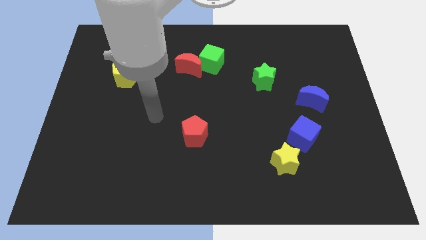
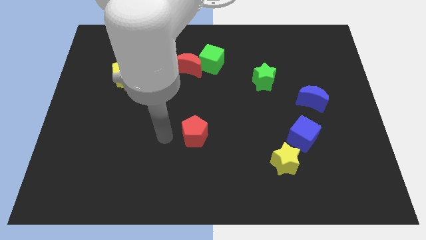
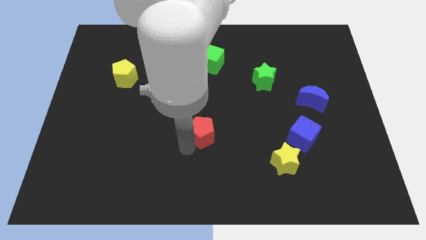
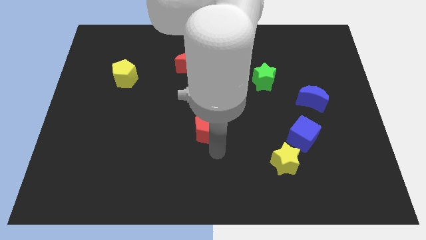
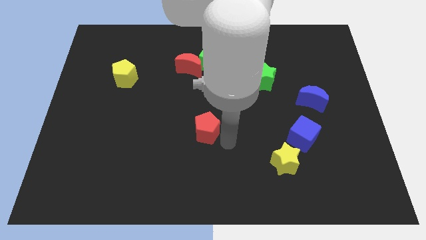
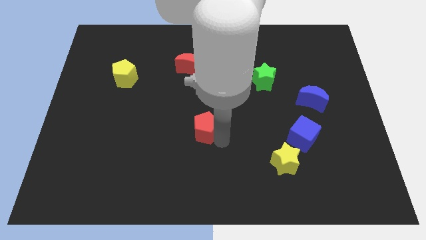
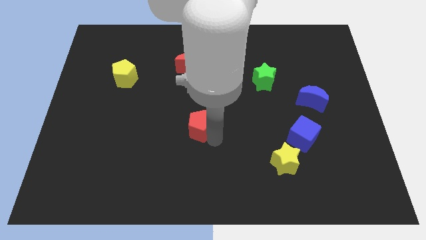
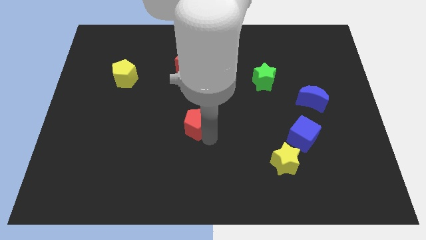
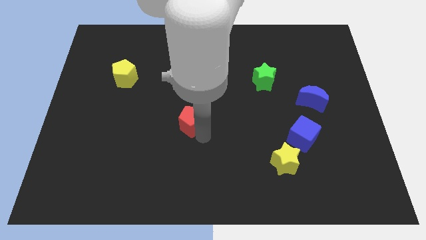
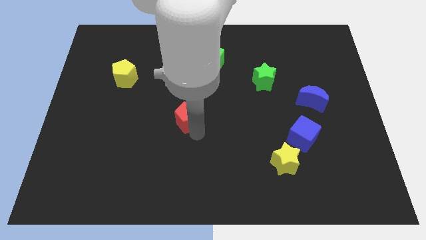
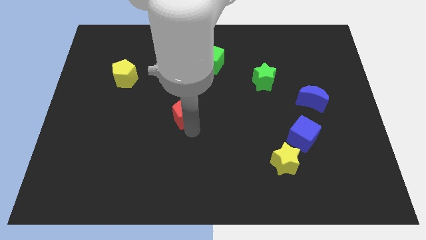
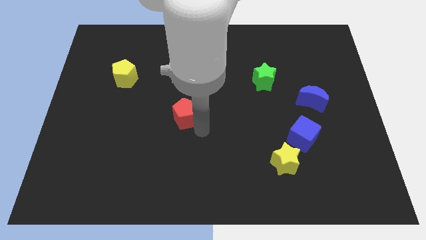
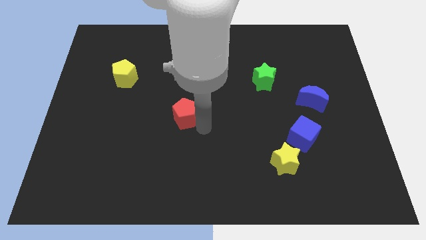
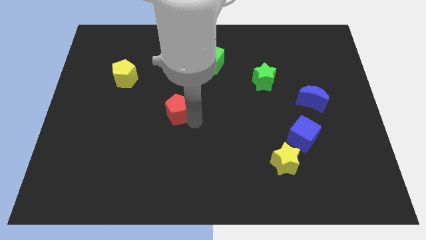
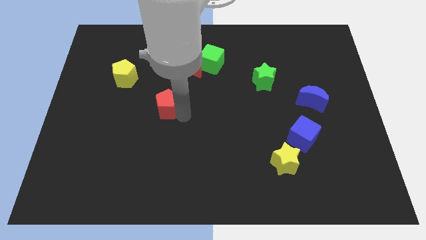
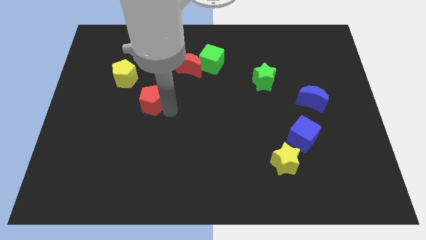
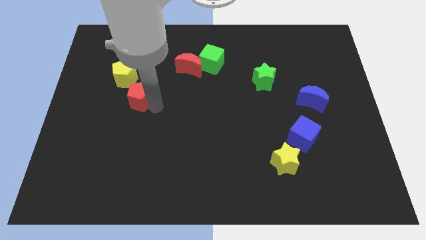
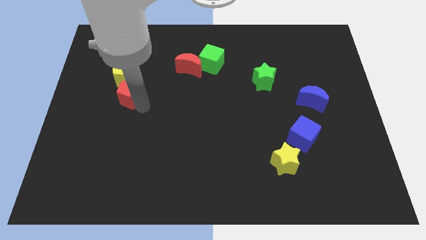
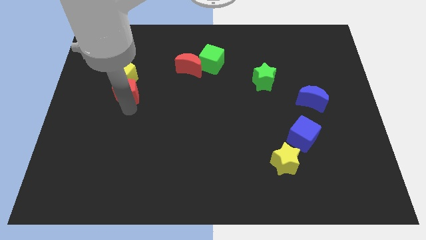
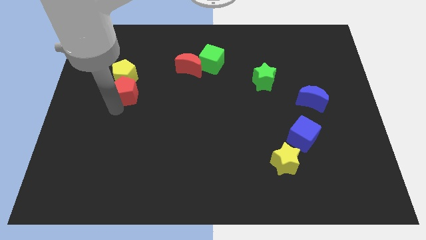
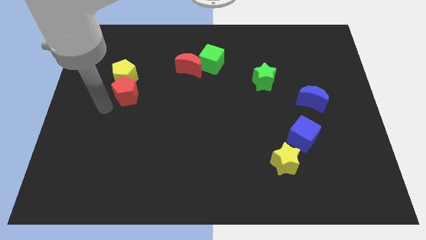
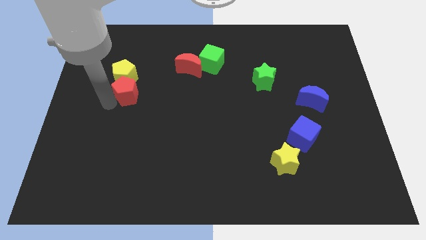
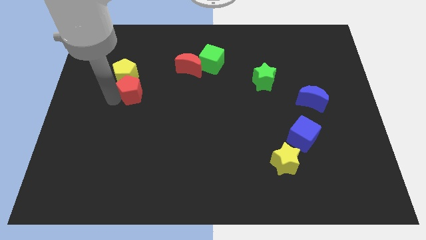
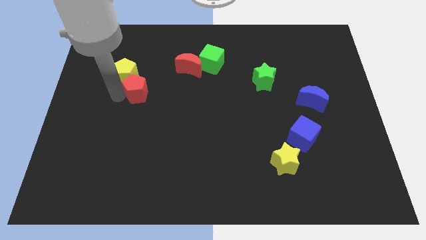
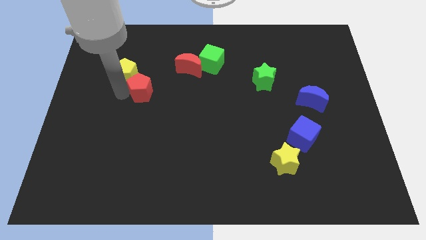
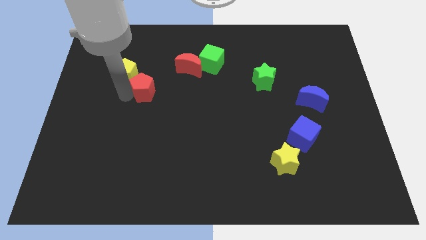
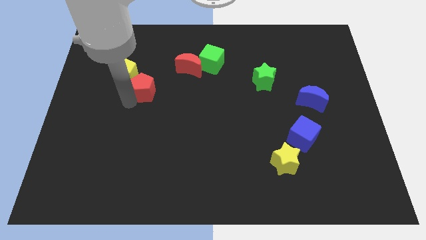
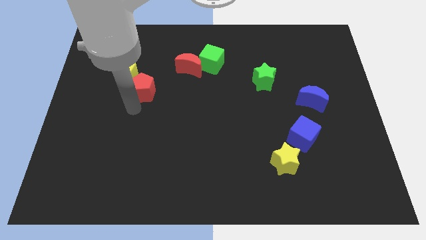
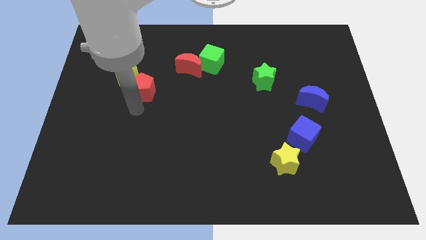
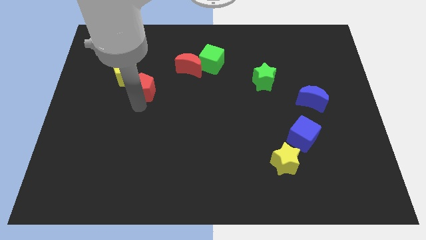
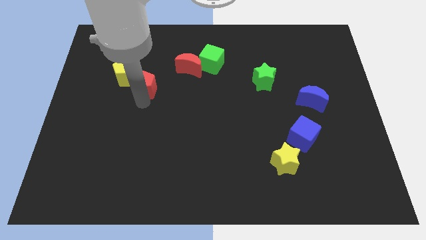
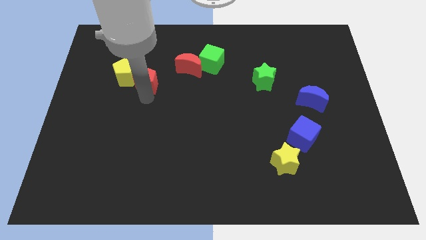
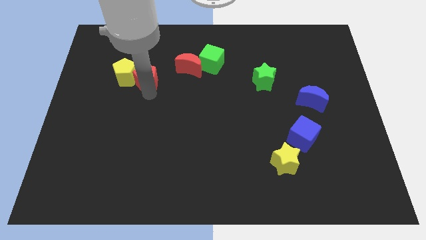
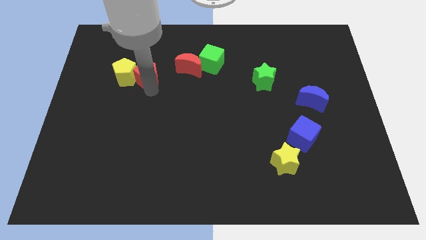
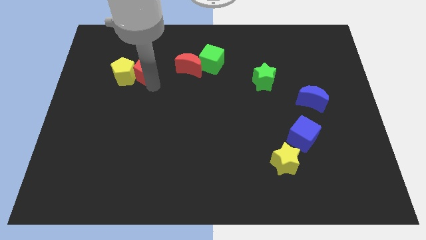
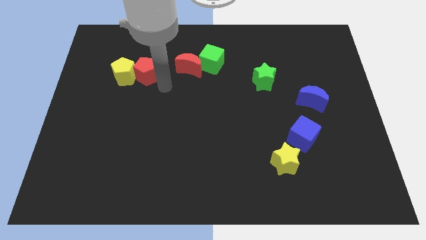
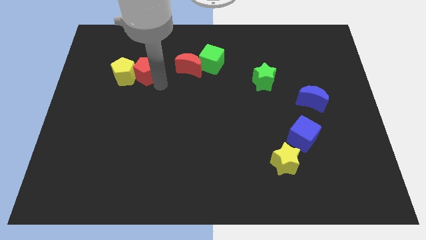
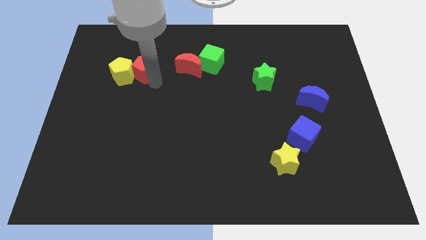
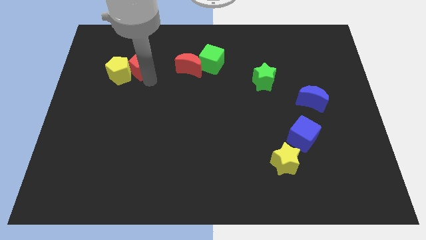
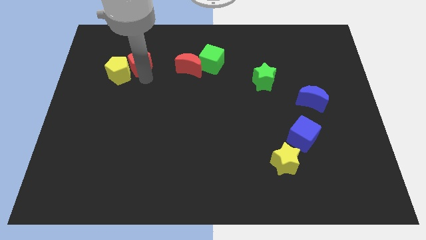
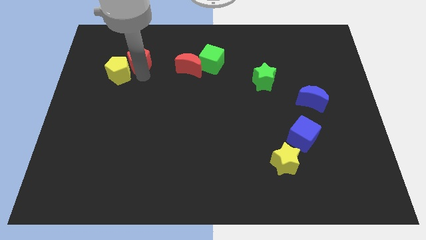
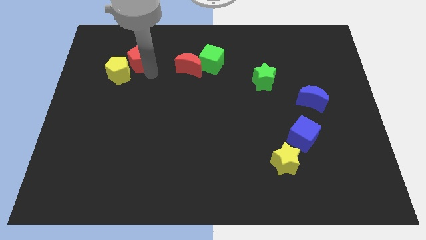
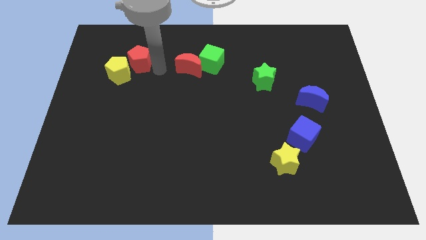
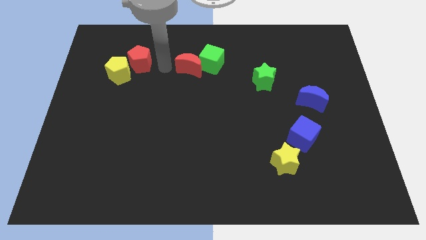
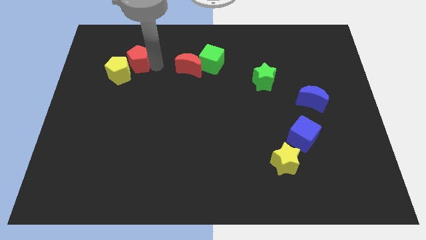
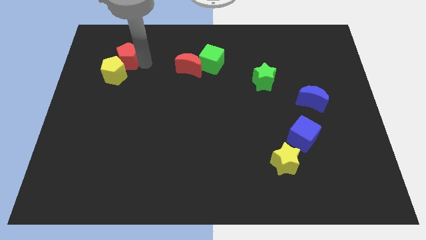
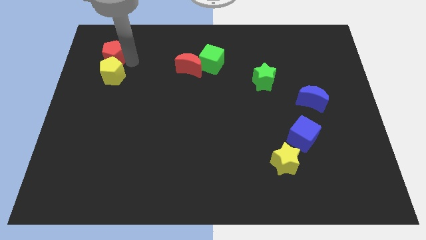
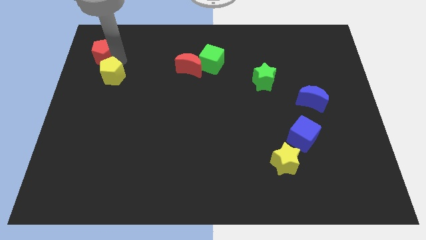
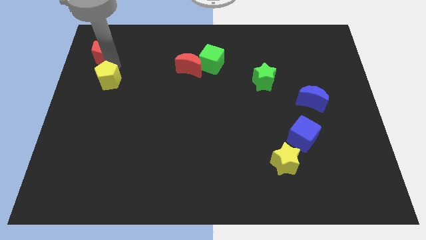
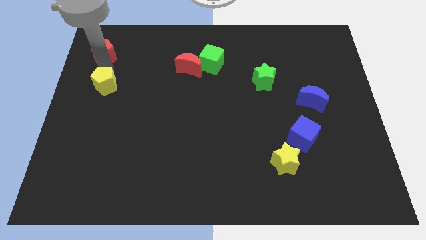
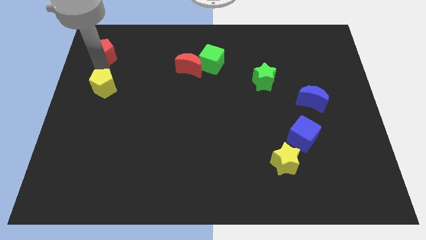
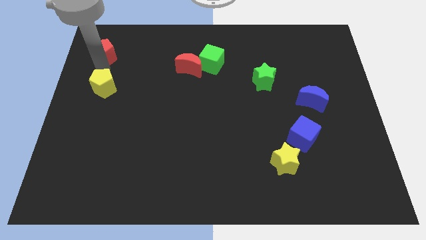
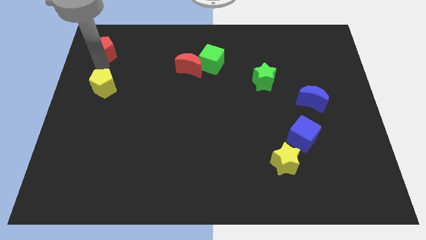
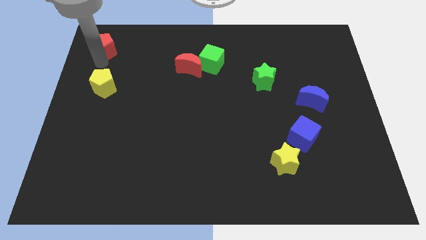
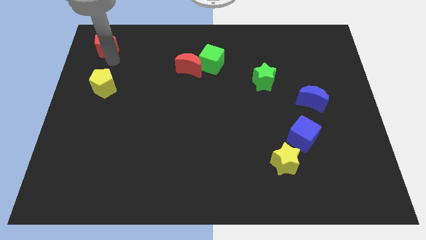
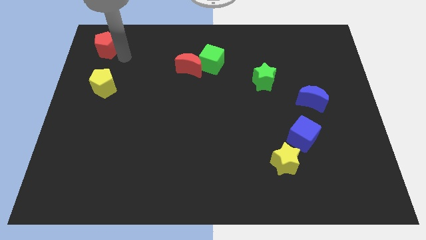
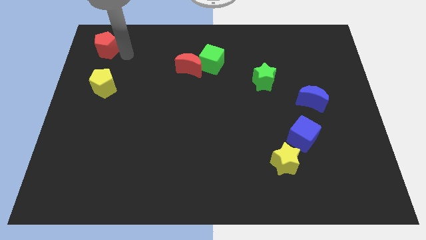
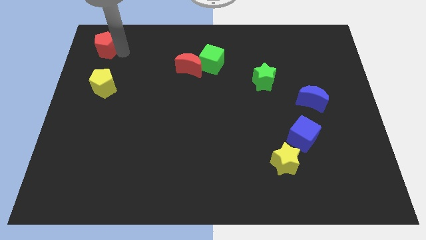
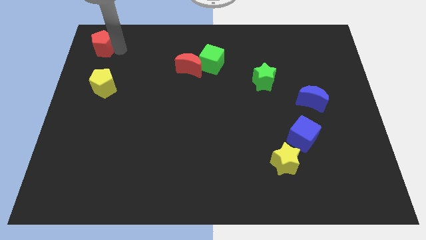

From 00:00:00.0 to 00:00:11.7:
move the red pentagon to the upper left corner

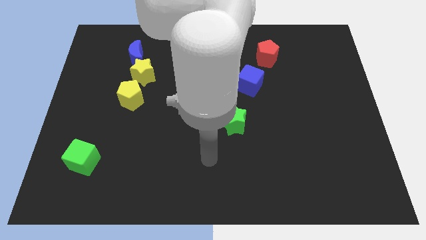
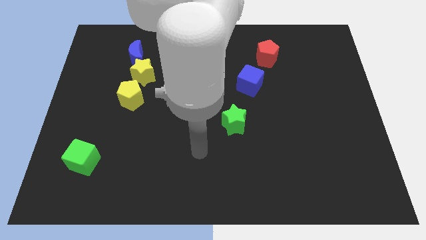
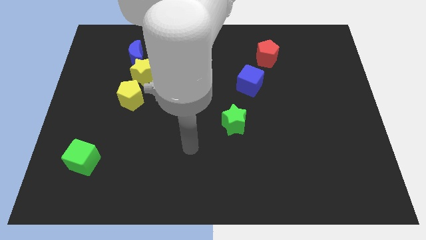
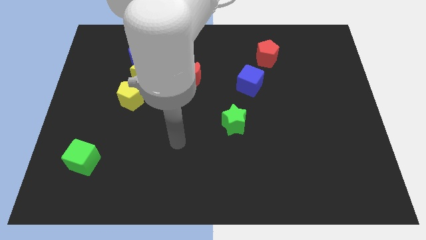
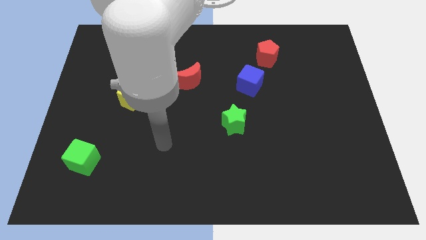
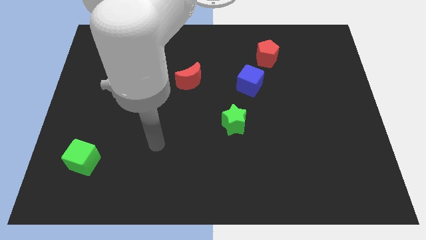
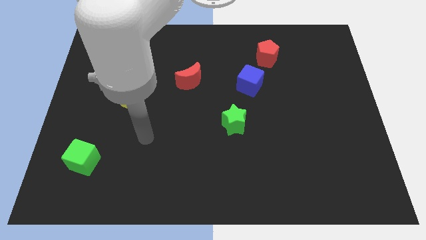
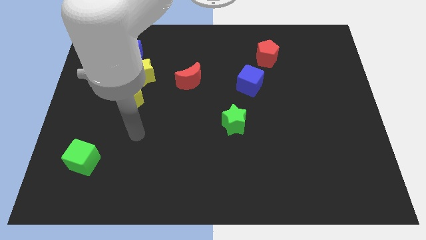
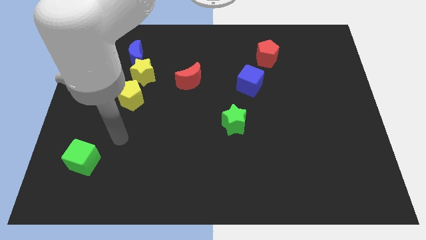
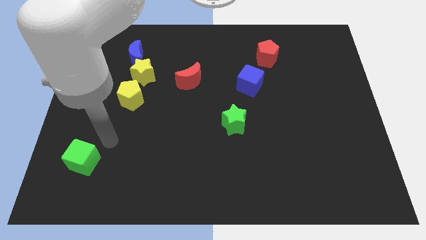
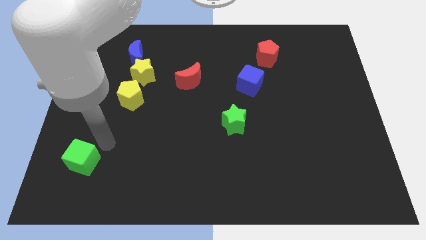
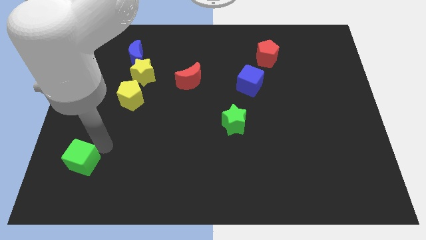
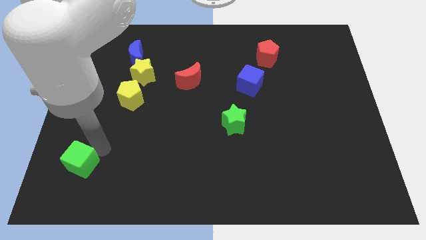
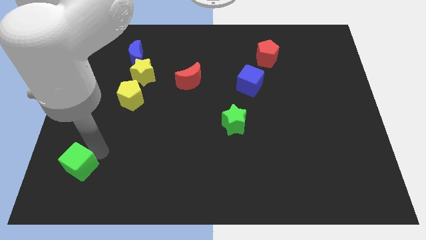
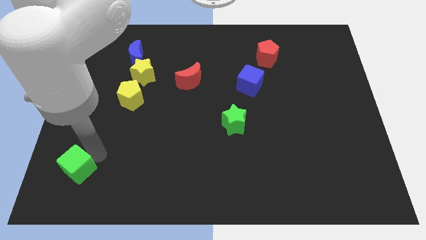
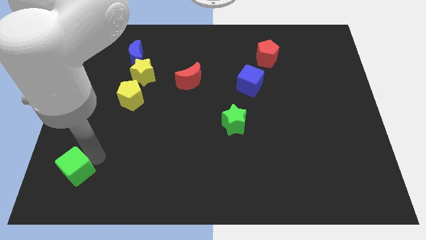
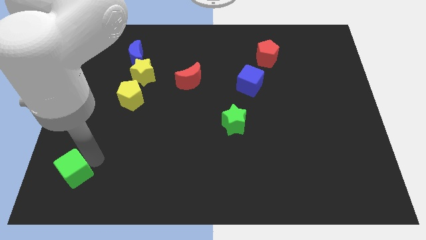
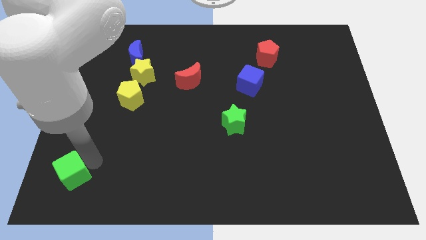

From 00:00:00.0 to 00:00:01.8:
push the green cube to the lower left corner
